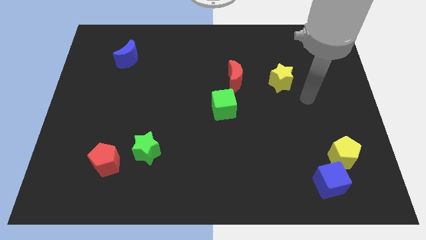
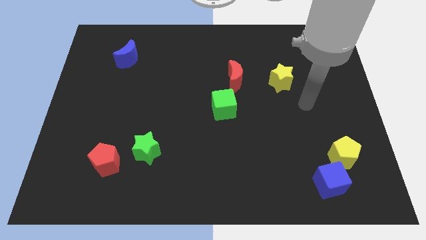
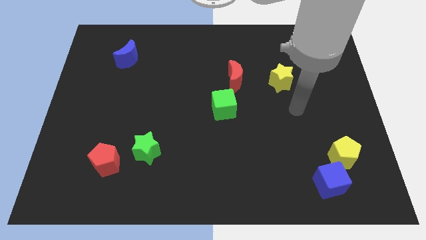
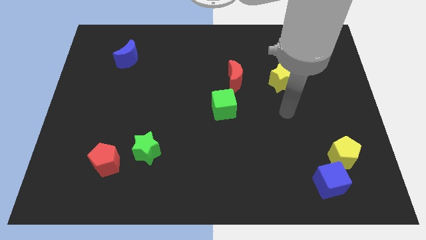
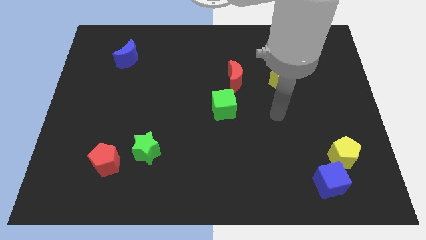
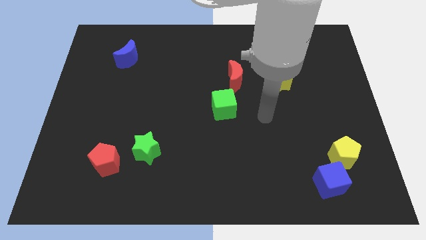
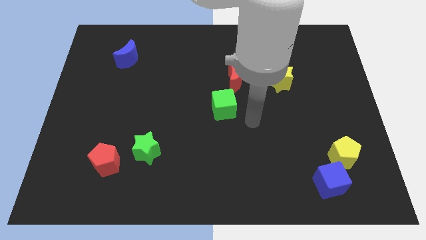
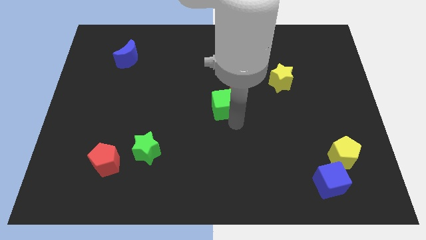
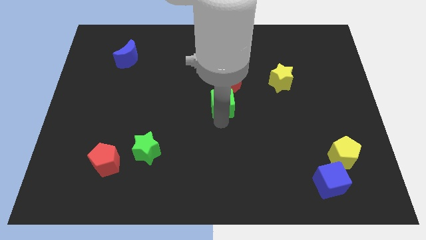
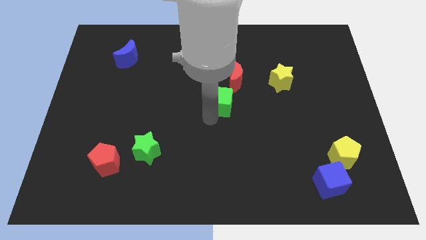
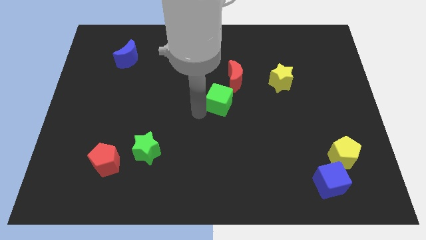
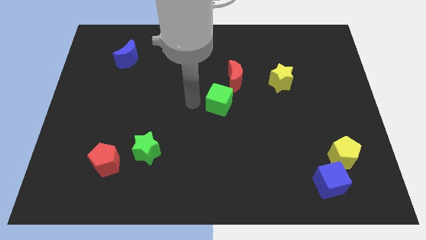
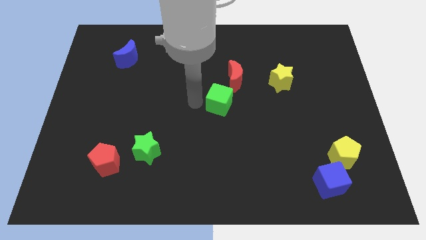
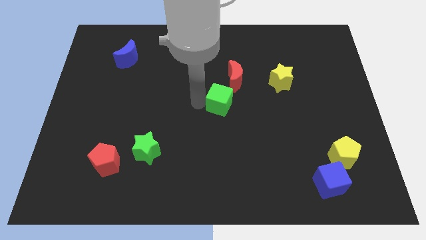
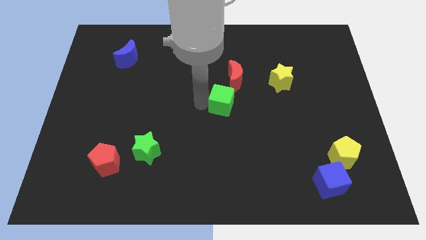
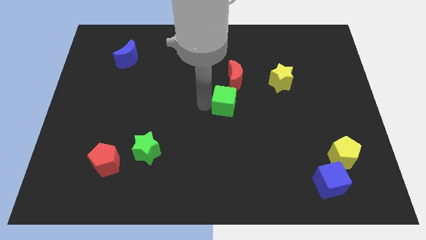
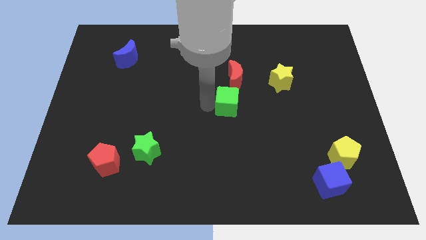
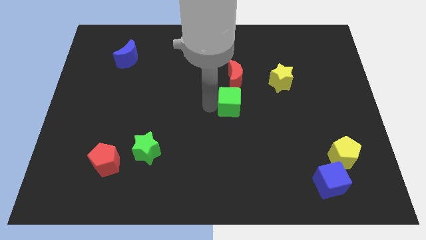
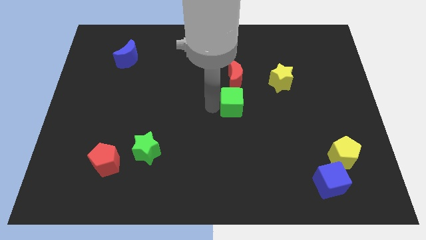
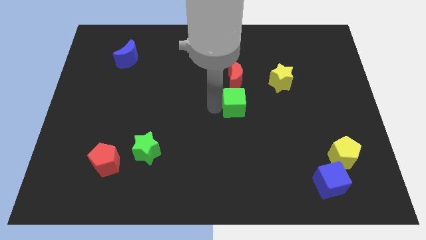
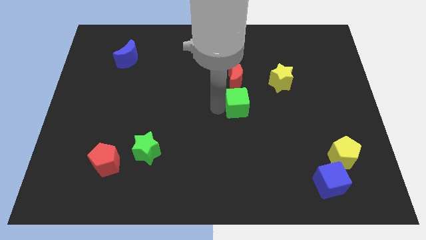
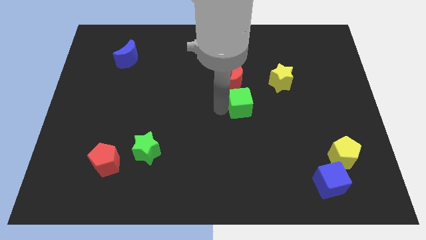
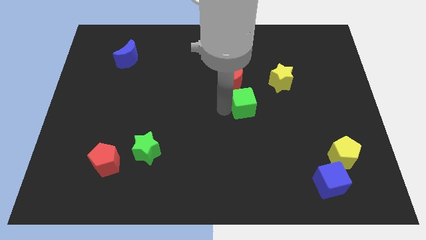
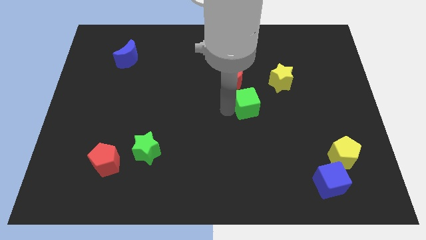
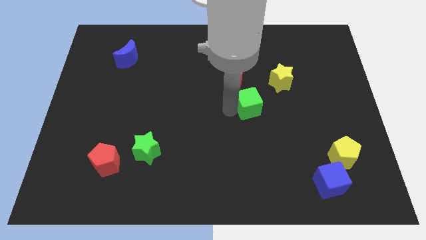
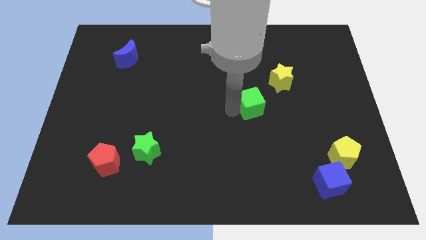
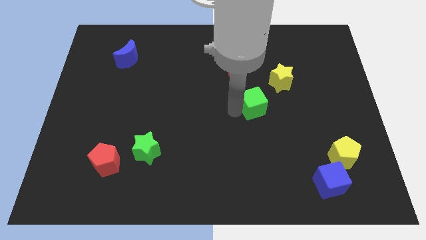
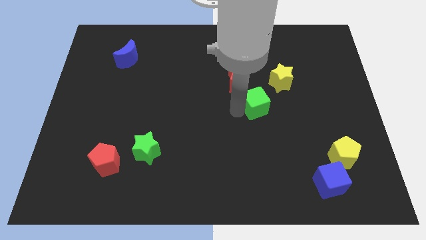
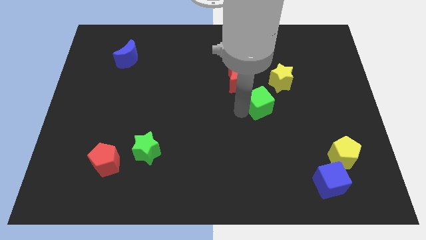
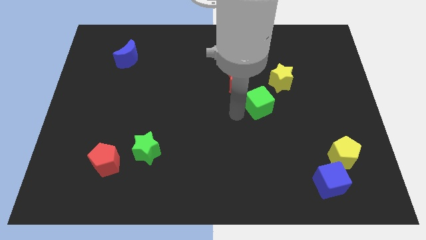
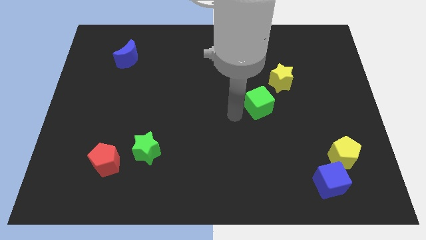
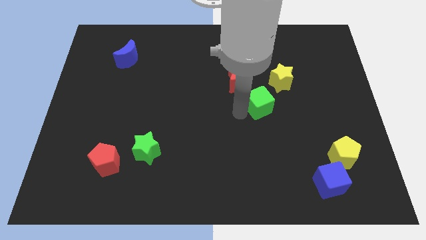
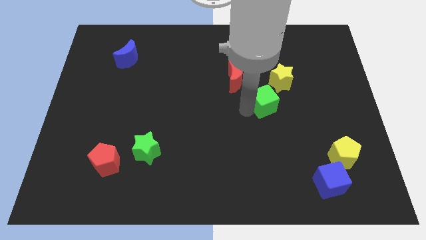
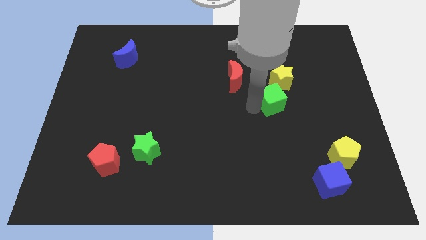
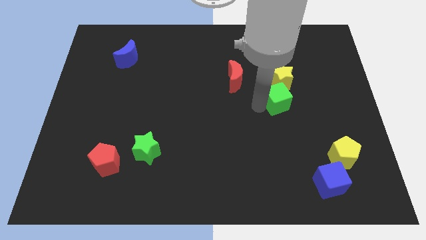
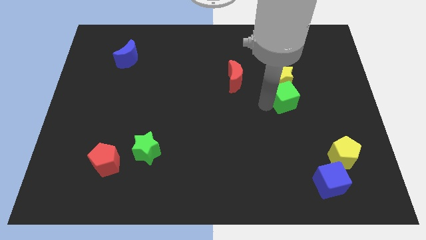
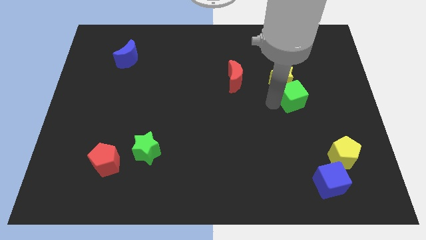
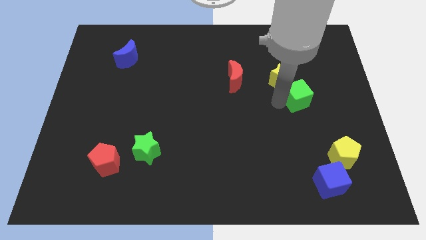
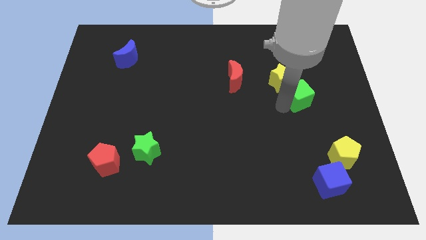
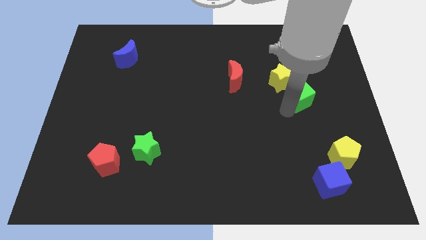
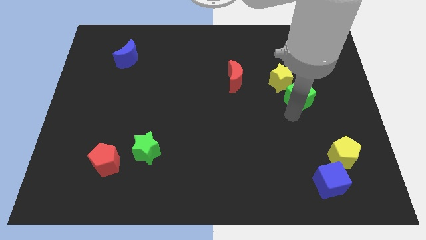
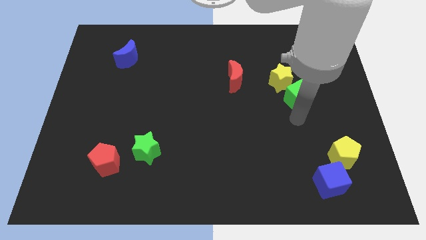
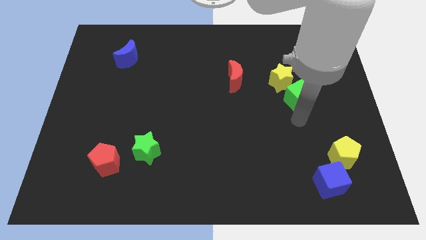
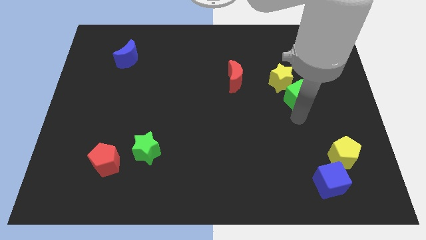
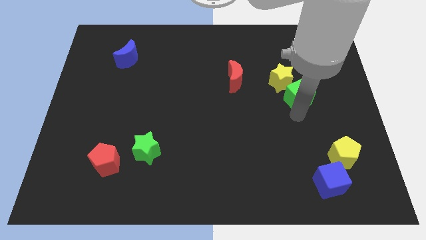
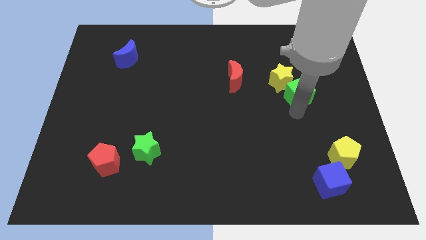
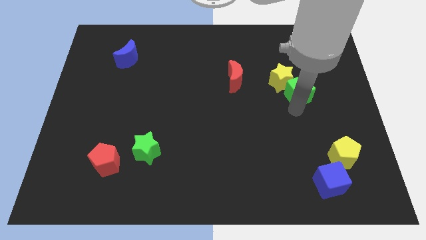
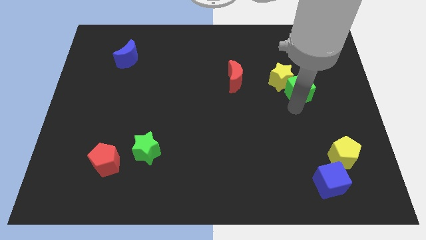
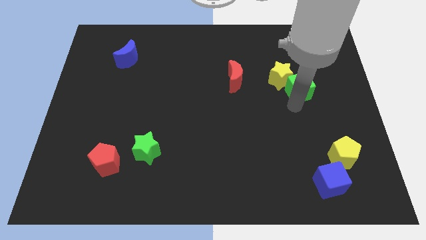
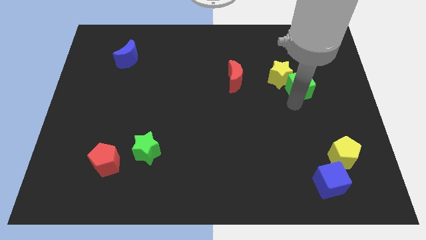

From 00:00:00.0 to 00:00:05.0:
slide the green cube to the right side of the red moon

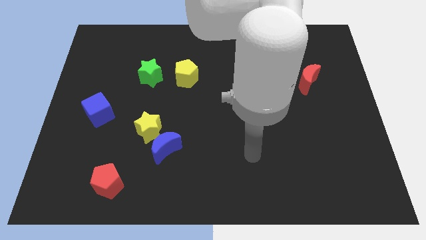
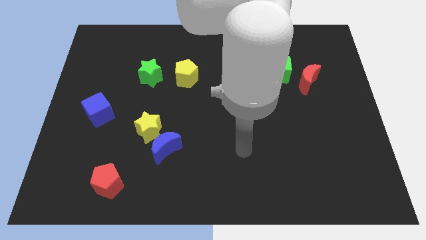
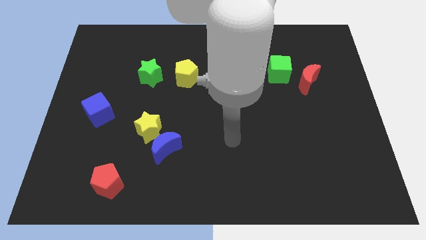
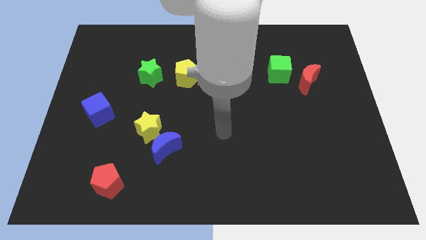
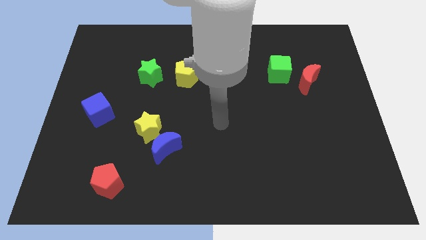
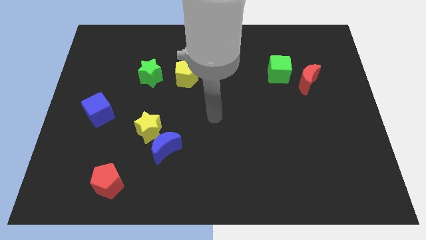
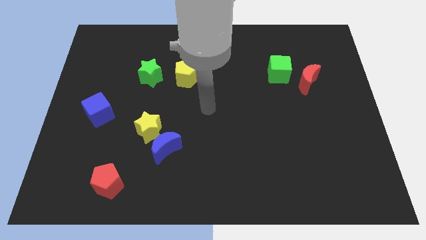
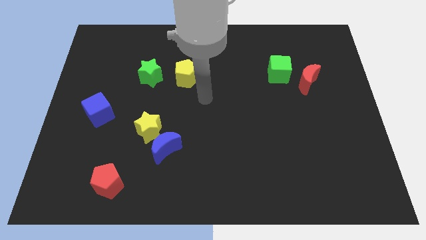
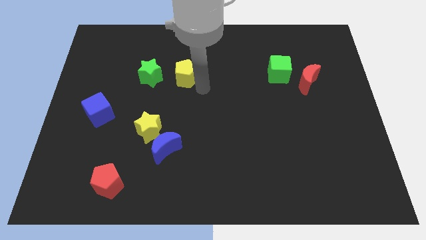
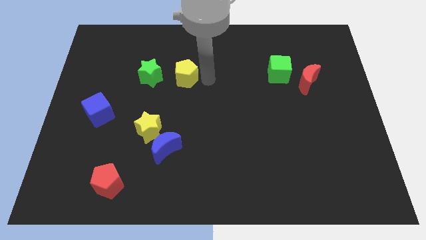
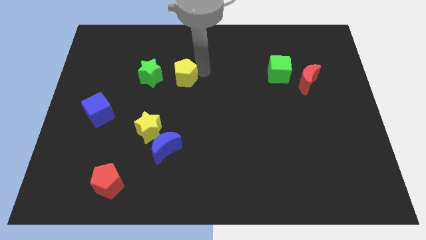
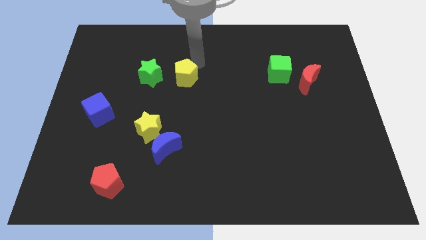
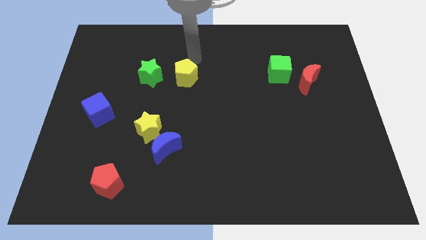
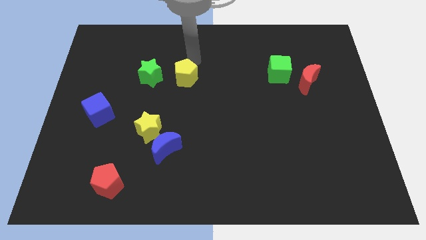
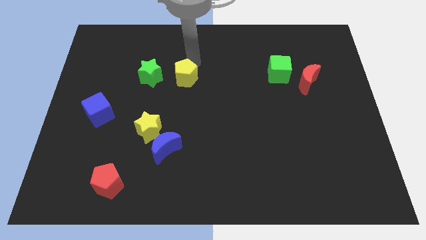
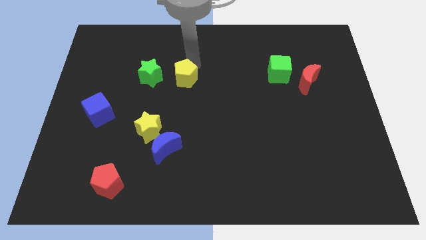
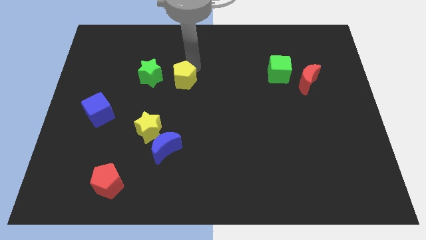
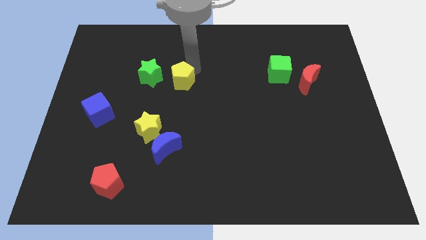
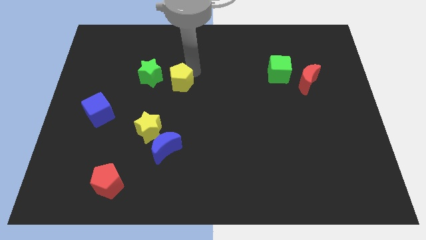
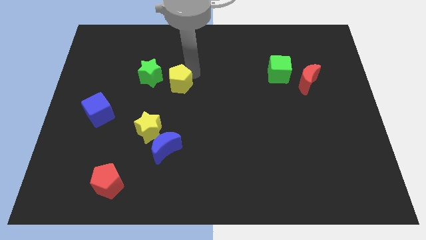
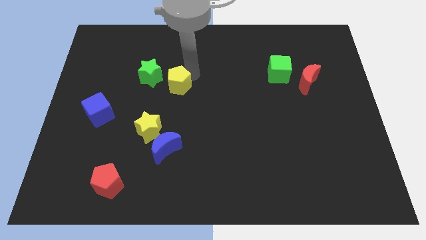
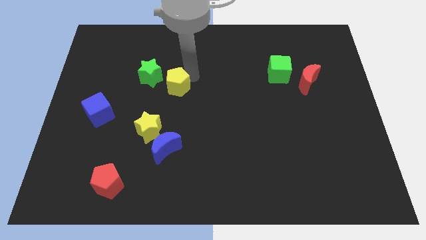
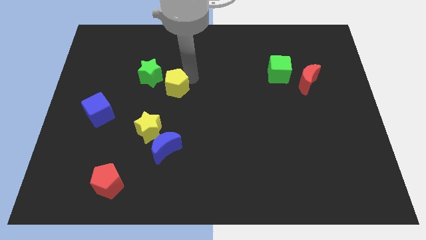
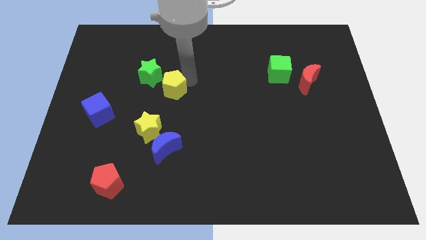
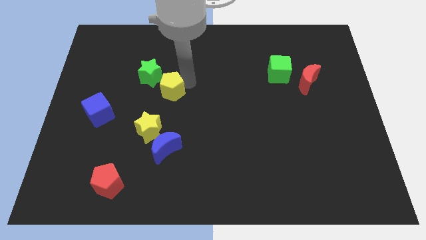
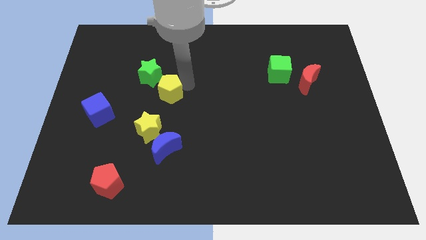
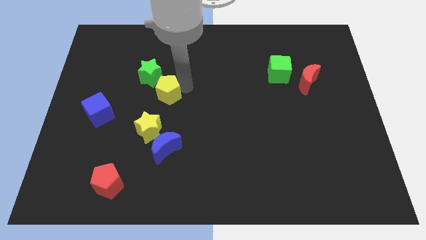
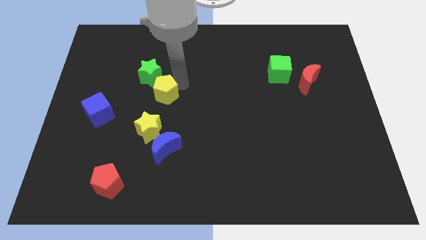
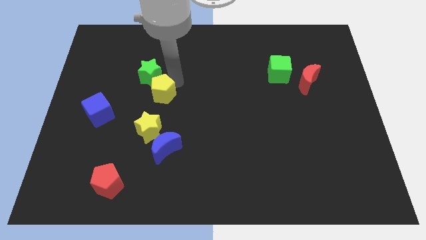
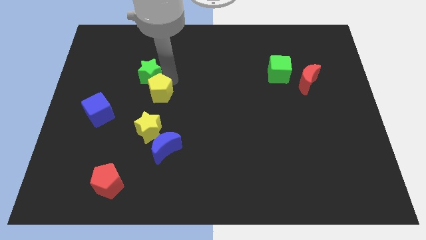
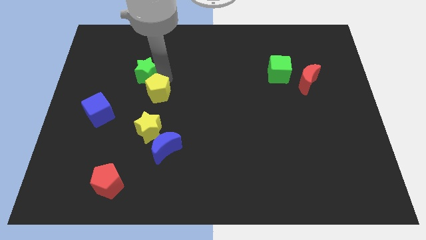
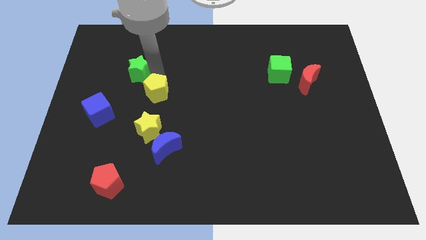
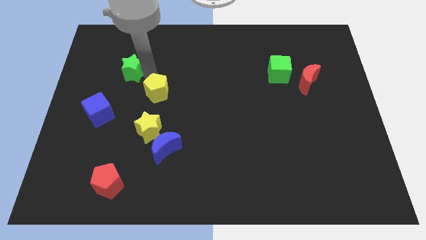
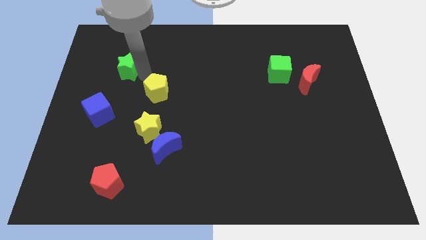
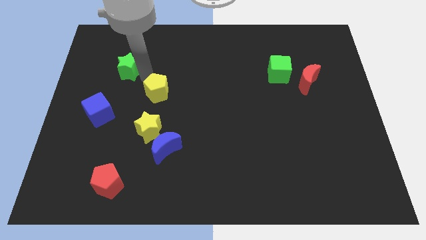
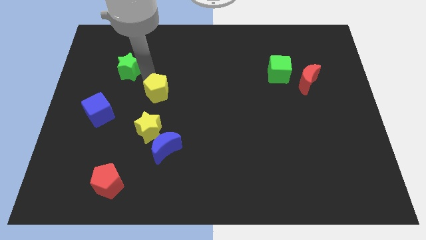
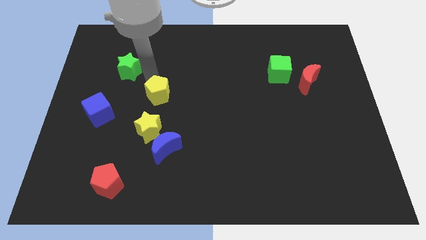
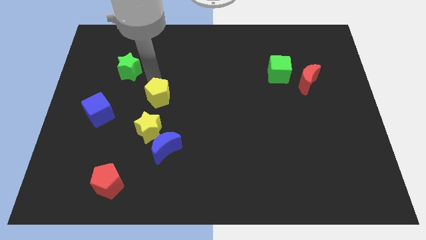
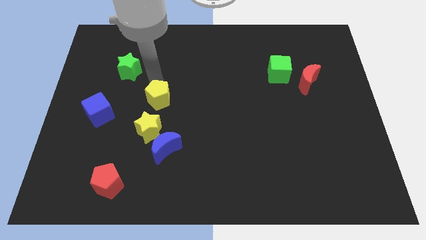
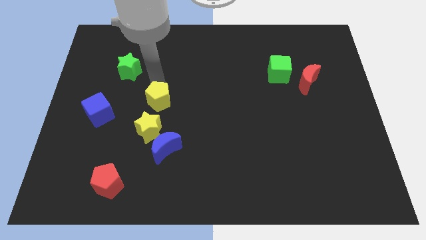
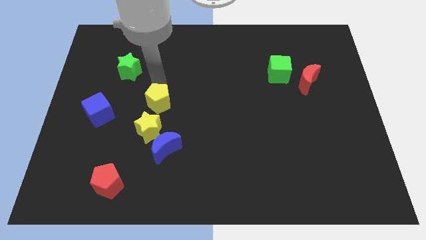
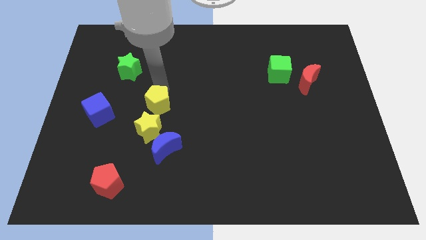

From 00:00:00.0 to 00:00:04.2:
put the yellow pentagon to the top right side of the yellow star
